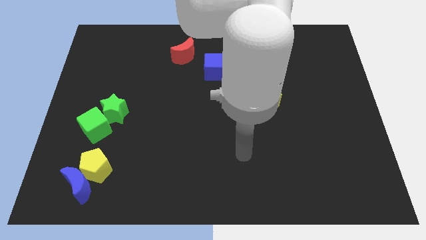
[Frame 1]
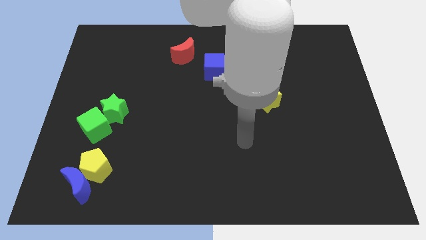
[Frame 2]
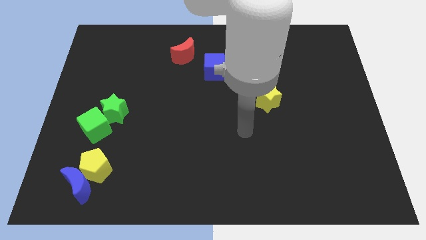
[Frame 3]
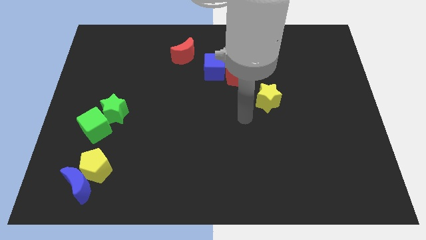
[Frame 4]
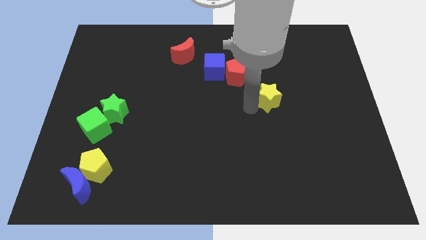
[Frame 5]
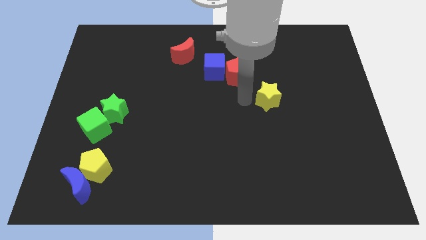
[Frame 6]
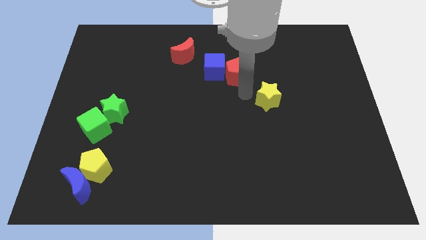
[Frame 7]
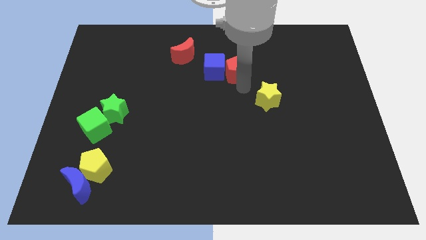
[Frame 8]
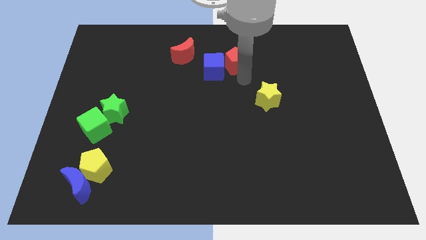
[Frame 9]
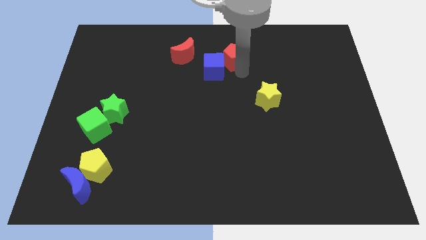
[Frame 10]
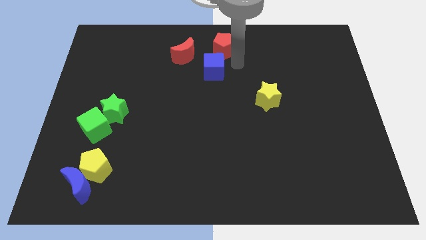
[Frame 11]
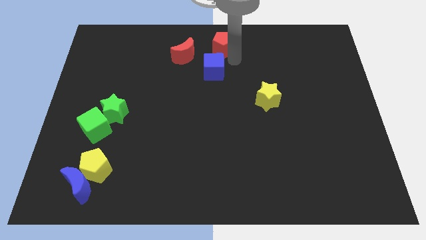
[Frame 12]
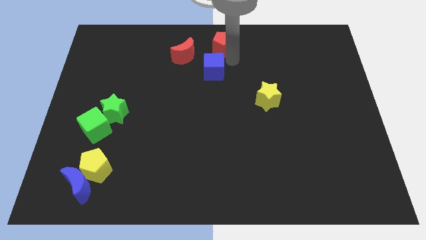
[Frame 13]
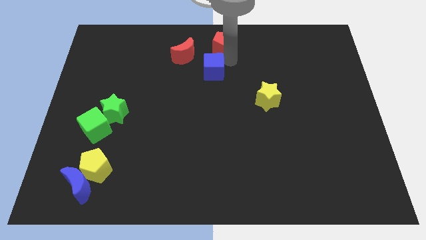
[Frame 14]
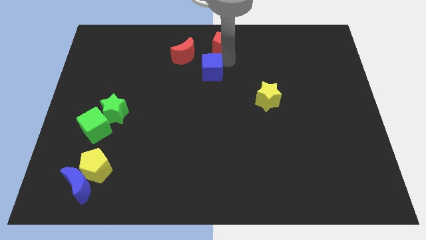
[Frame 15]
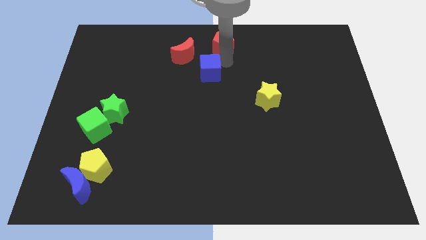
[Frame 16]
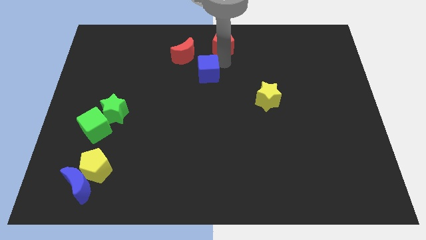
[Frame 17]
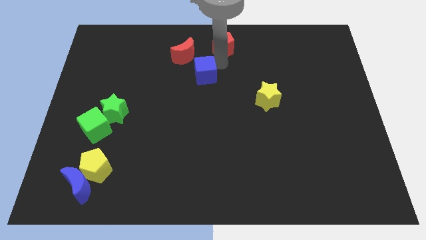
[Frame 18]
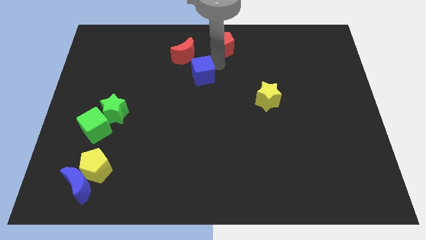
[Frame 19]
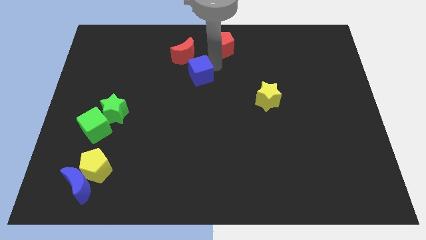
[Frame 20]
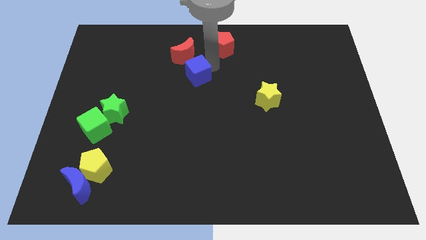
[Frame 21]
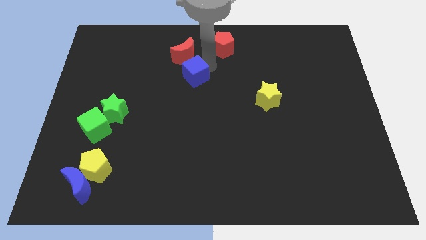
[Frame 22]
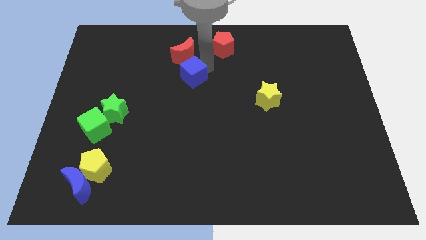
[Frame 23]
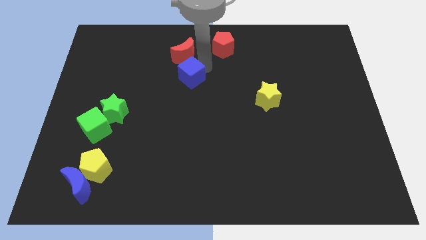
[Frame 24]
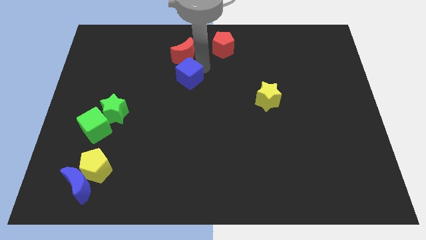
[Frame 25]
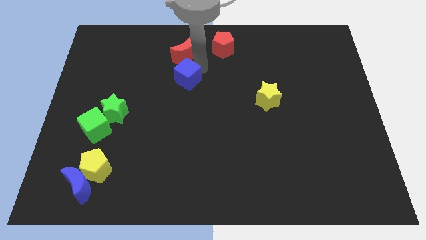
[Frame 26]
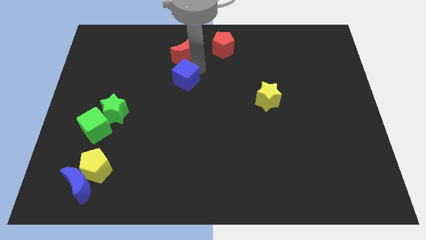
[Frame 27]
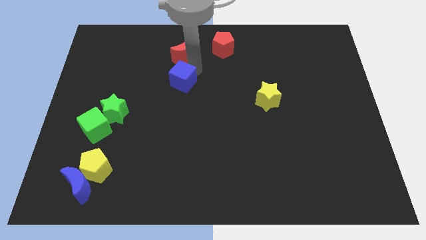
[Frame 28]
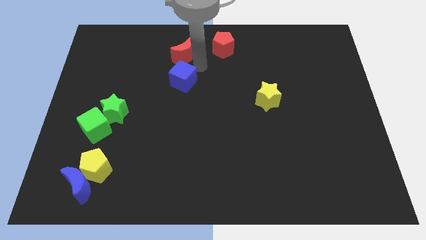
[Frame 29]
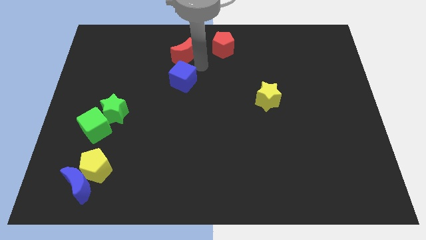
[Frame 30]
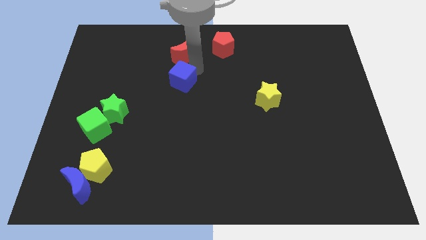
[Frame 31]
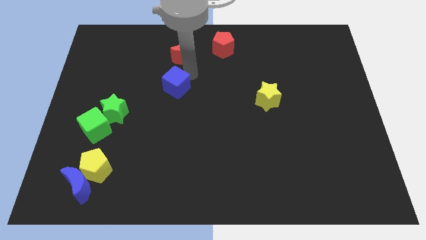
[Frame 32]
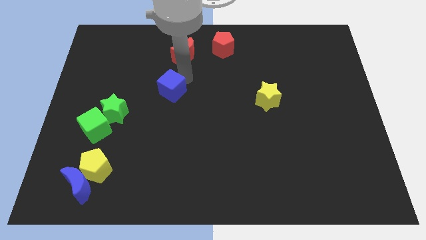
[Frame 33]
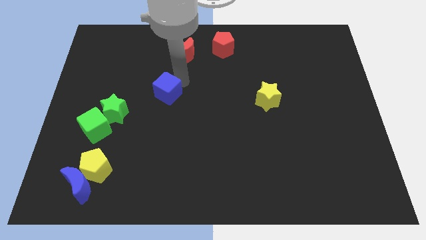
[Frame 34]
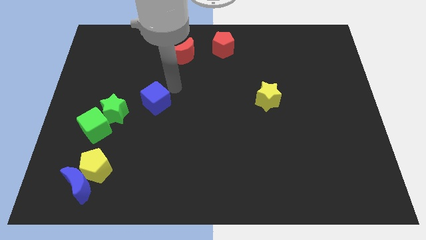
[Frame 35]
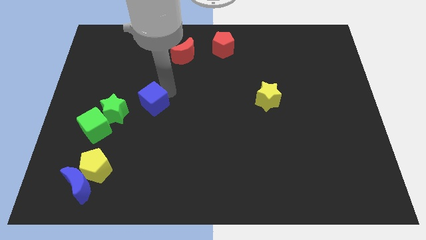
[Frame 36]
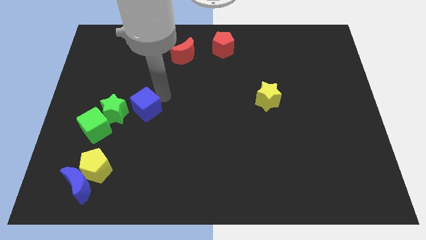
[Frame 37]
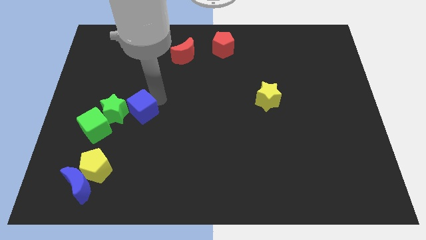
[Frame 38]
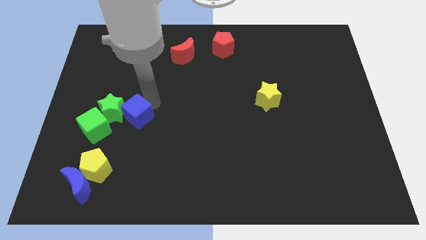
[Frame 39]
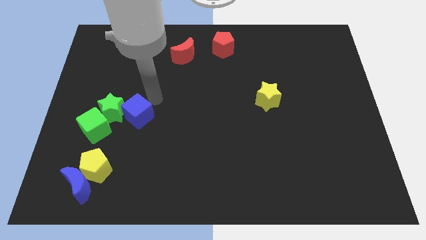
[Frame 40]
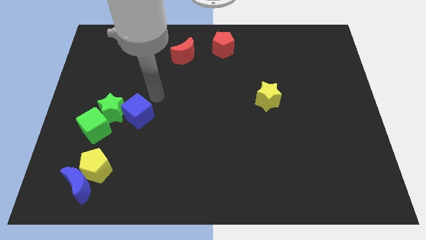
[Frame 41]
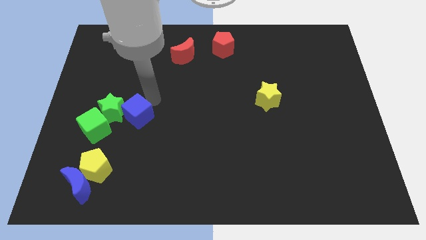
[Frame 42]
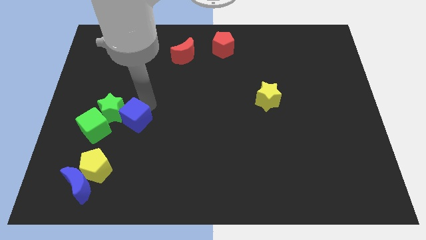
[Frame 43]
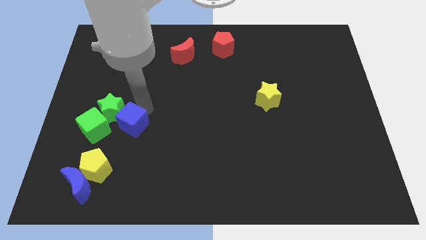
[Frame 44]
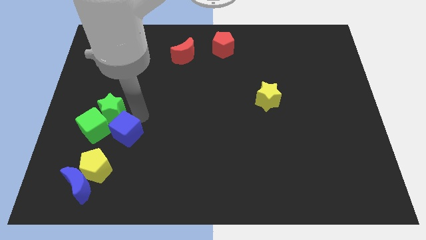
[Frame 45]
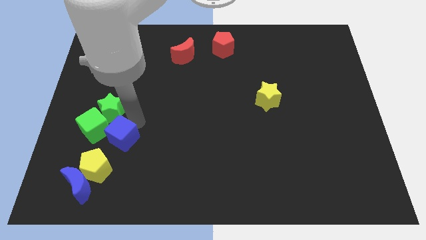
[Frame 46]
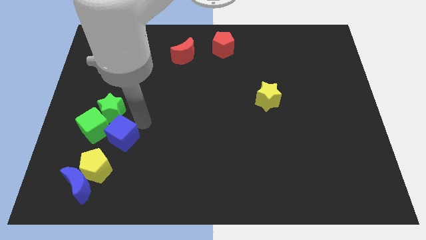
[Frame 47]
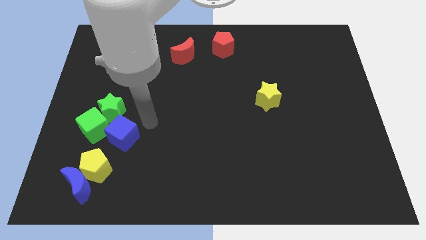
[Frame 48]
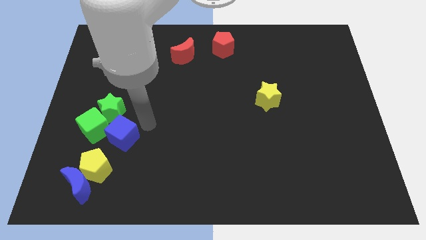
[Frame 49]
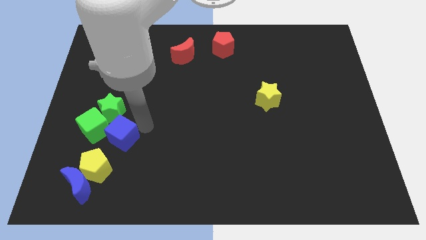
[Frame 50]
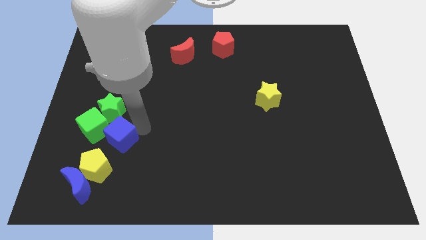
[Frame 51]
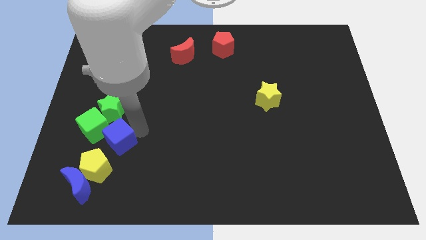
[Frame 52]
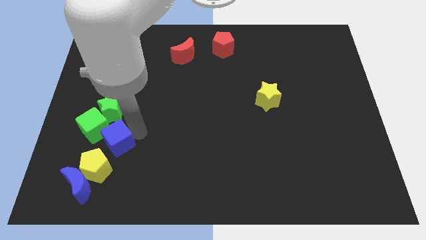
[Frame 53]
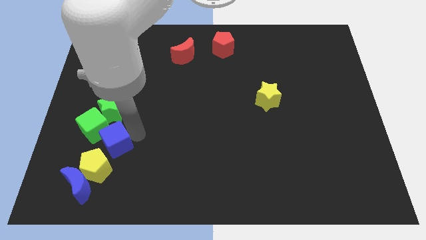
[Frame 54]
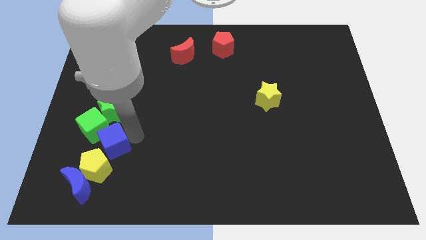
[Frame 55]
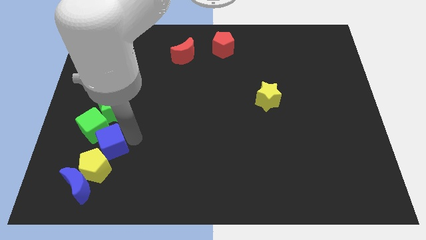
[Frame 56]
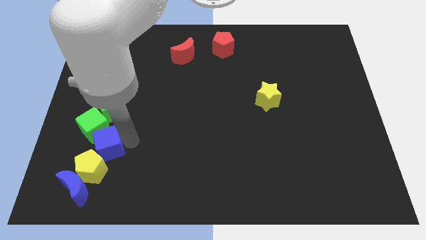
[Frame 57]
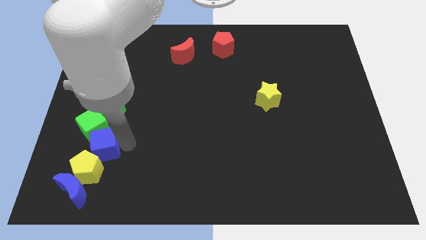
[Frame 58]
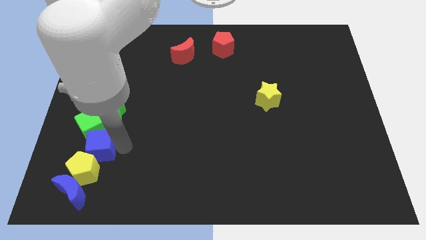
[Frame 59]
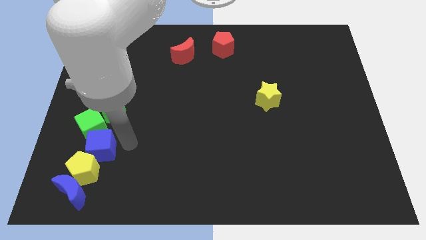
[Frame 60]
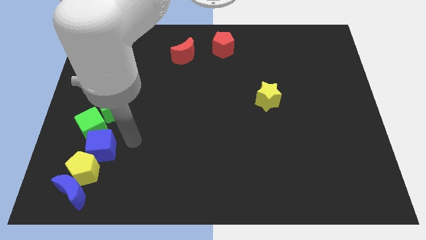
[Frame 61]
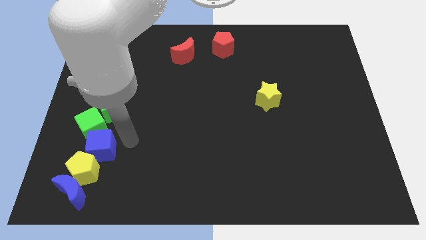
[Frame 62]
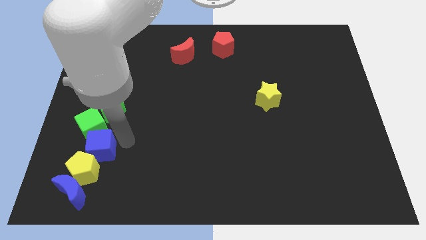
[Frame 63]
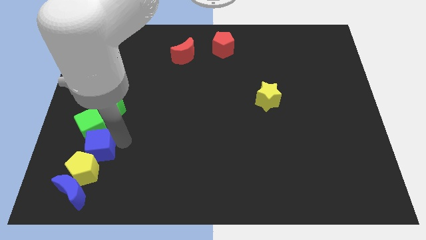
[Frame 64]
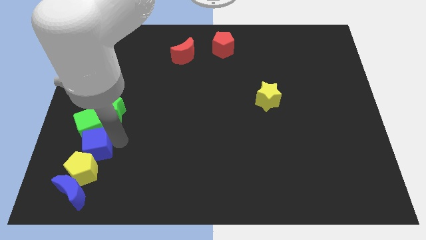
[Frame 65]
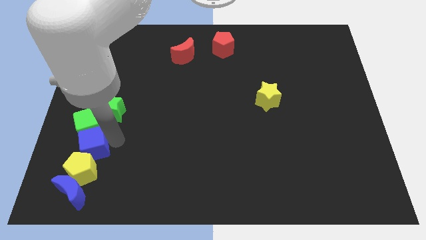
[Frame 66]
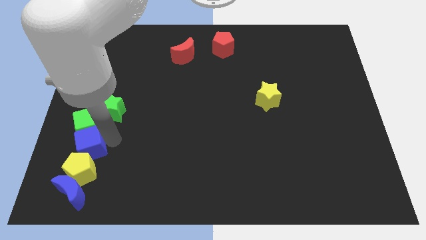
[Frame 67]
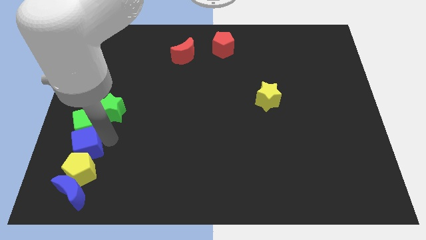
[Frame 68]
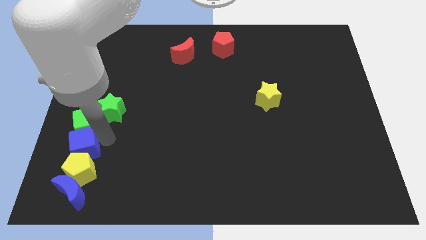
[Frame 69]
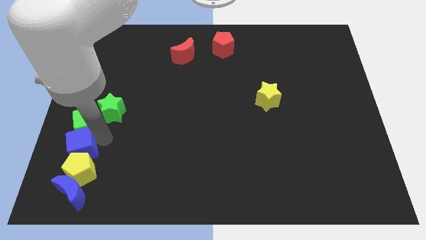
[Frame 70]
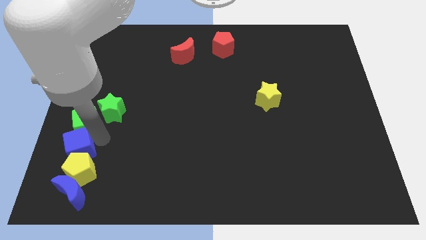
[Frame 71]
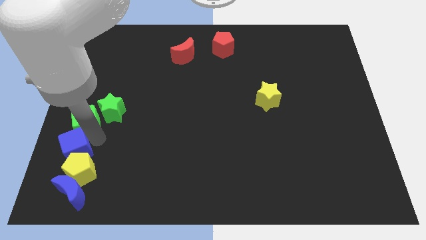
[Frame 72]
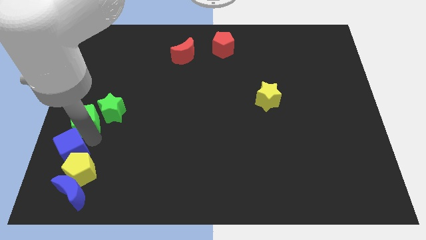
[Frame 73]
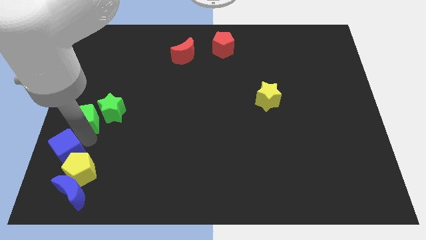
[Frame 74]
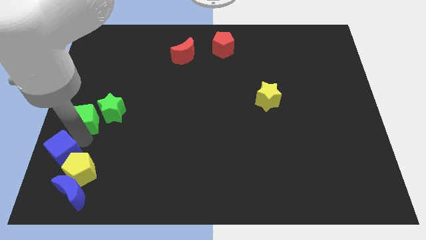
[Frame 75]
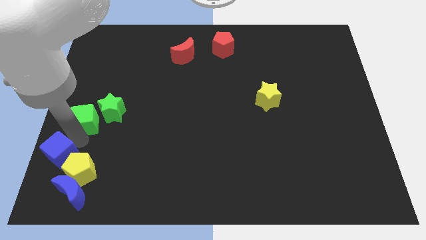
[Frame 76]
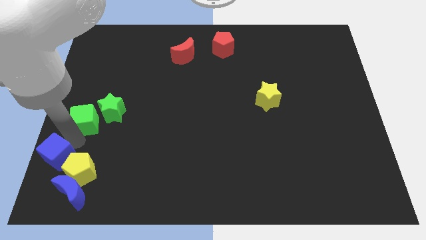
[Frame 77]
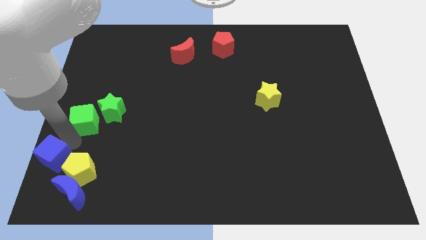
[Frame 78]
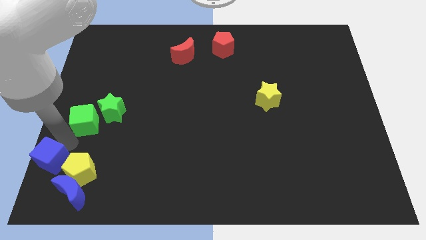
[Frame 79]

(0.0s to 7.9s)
slide the blue cube to the bottom left corner
